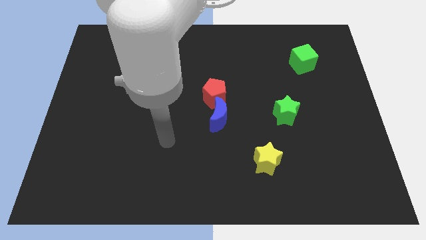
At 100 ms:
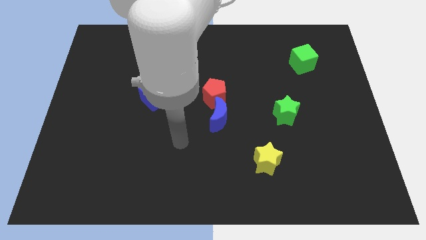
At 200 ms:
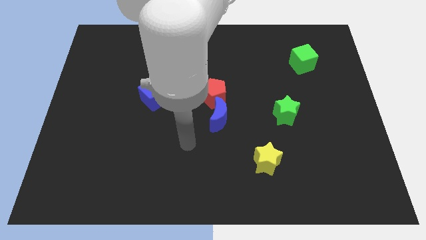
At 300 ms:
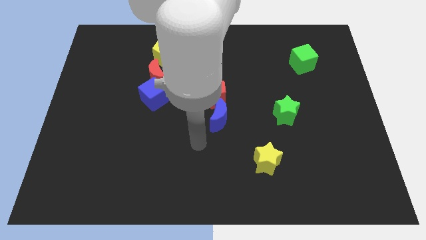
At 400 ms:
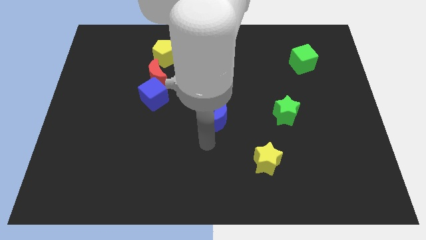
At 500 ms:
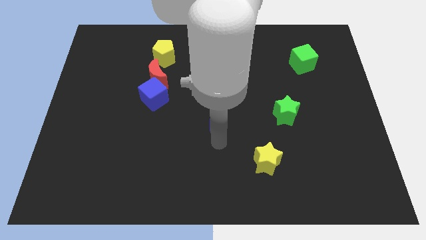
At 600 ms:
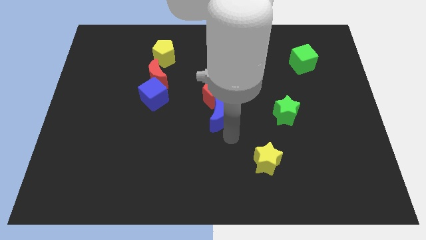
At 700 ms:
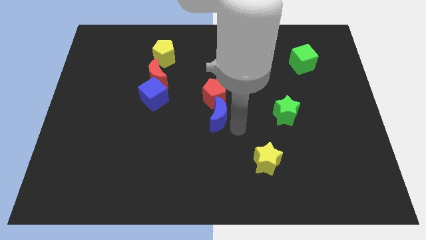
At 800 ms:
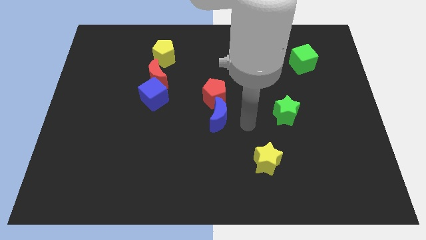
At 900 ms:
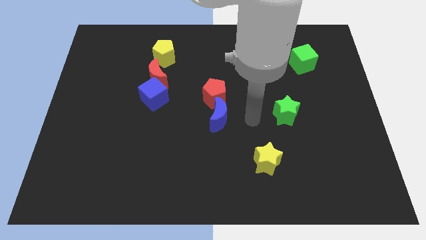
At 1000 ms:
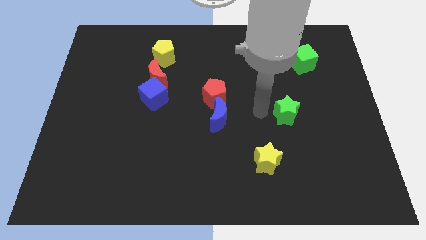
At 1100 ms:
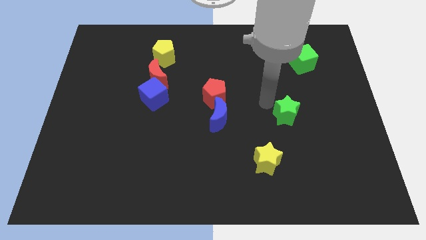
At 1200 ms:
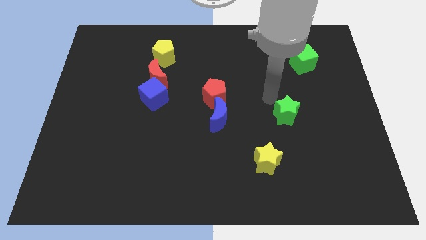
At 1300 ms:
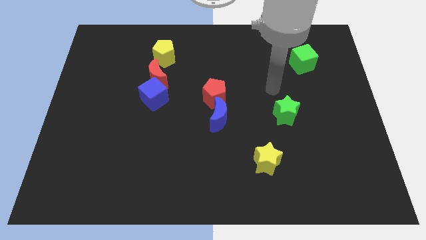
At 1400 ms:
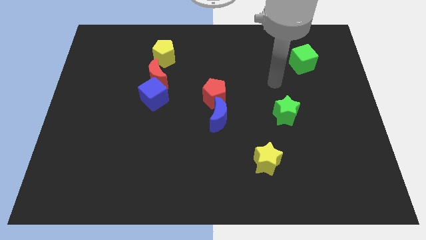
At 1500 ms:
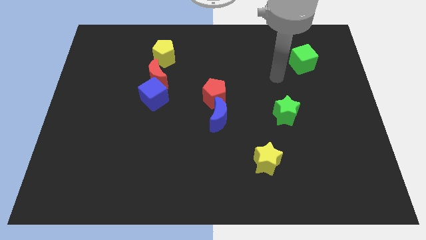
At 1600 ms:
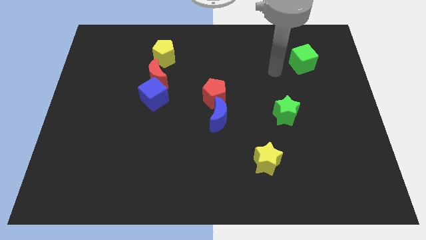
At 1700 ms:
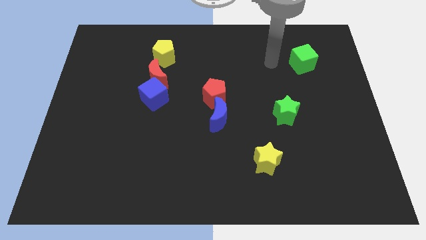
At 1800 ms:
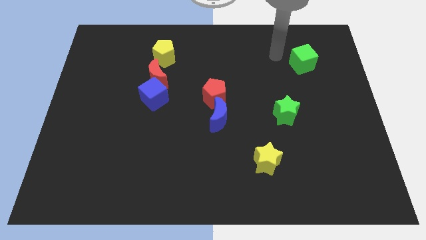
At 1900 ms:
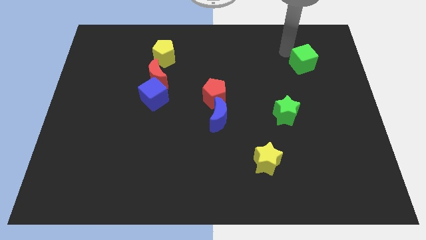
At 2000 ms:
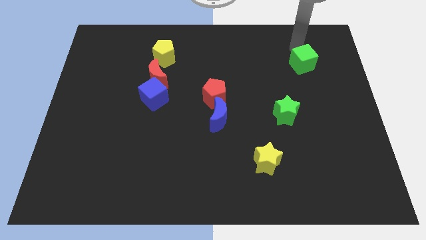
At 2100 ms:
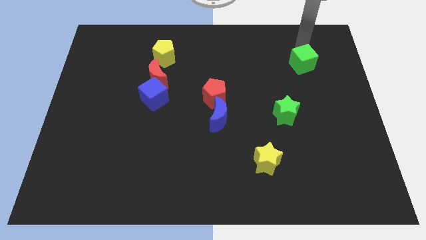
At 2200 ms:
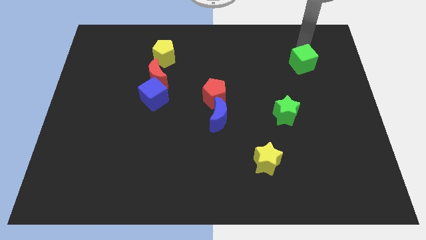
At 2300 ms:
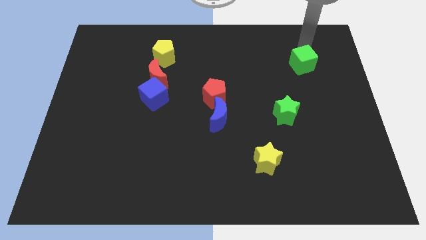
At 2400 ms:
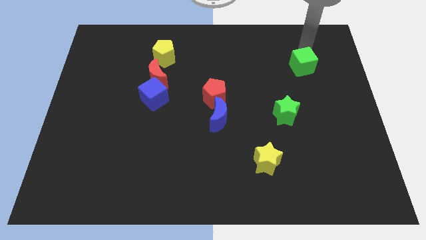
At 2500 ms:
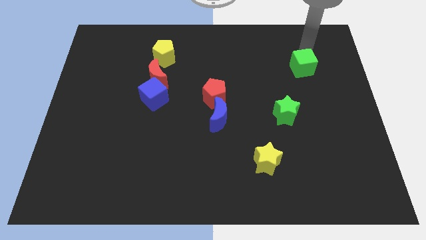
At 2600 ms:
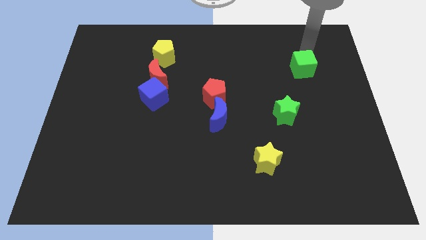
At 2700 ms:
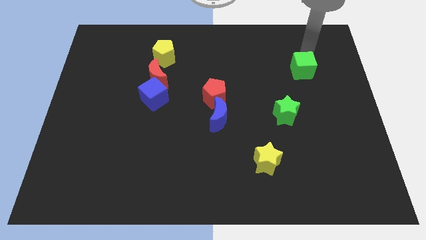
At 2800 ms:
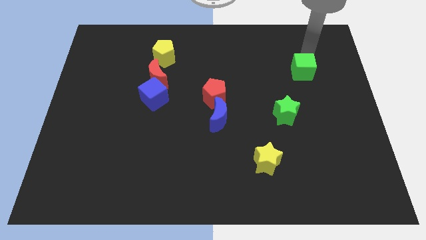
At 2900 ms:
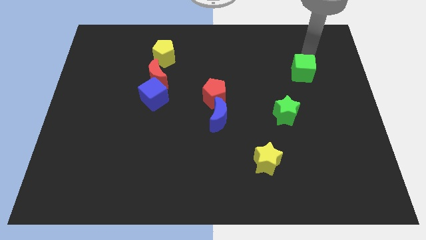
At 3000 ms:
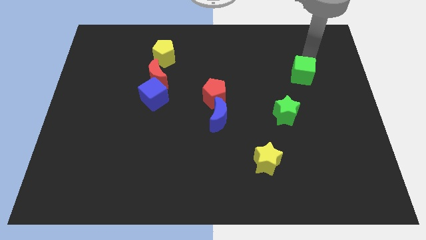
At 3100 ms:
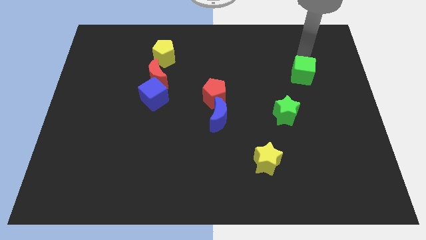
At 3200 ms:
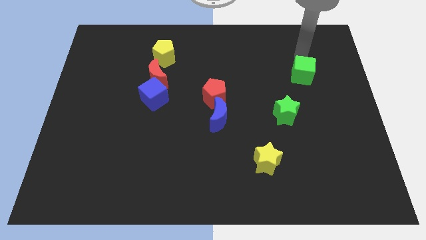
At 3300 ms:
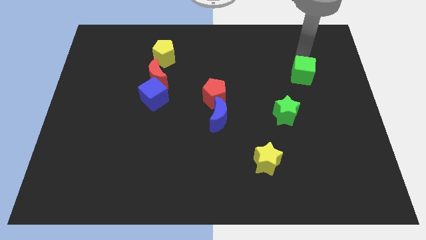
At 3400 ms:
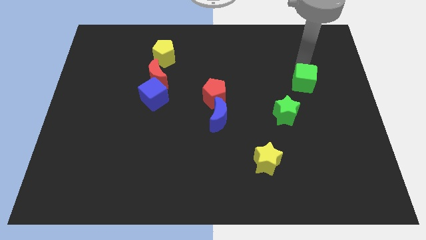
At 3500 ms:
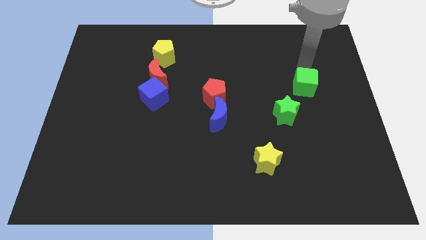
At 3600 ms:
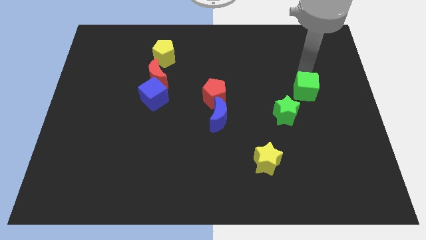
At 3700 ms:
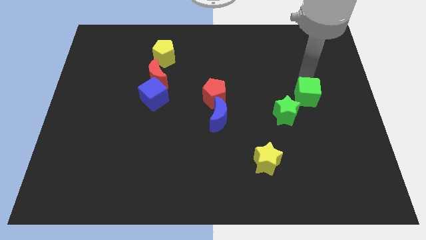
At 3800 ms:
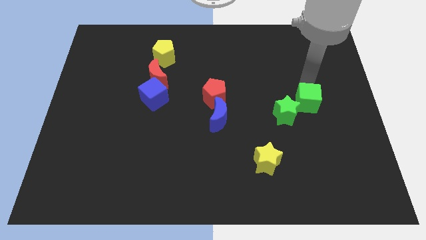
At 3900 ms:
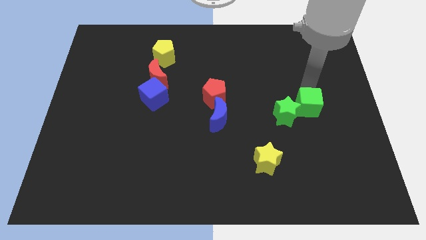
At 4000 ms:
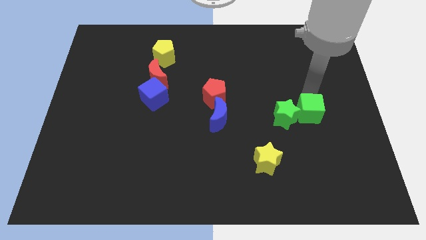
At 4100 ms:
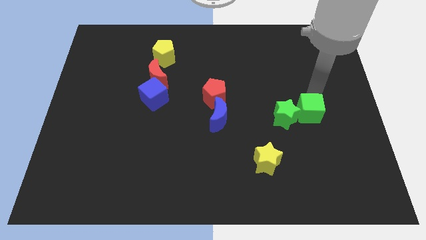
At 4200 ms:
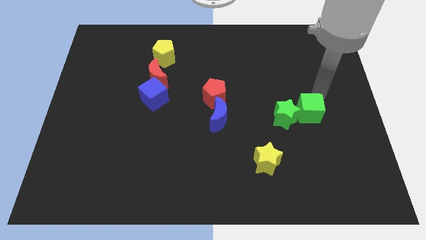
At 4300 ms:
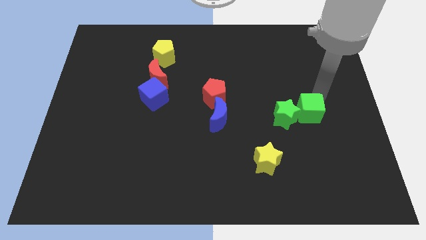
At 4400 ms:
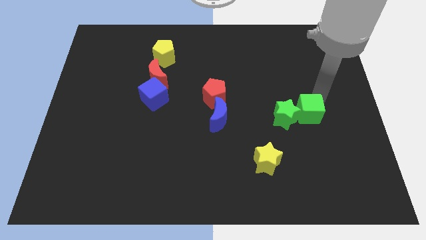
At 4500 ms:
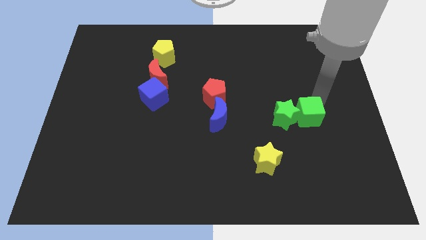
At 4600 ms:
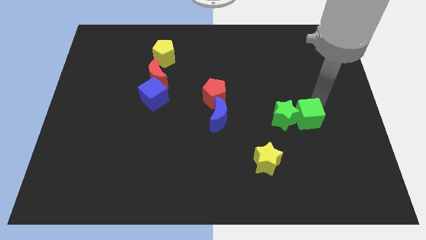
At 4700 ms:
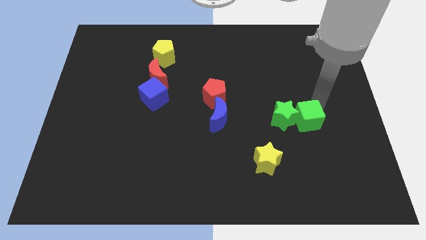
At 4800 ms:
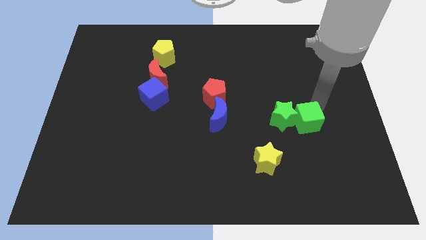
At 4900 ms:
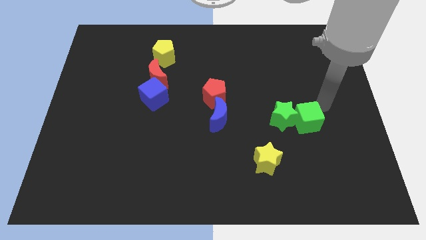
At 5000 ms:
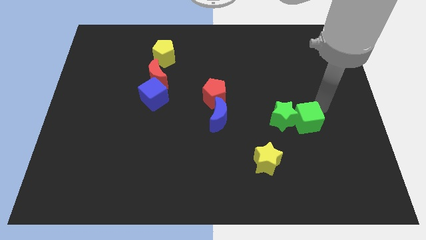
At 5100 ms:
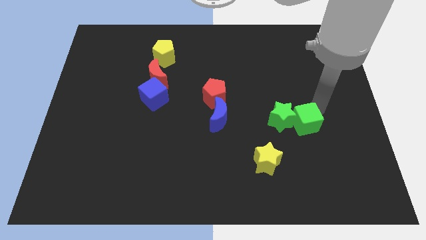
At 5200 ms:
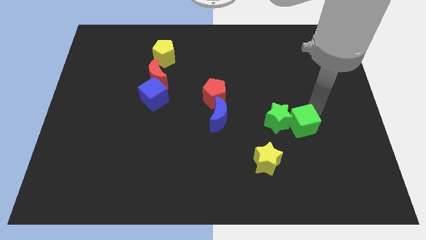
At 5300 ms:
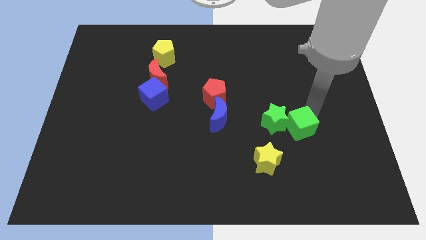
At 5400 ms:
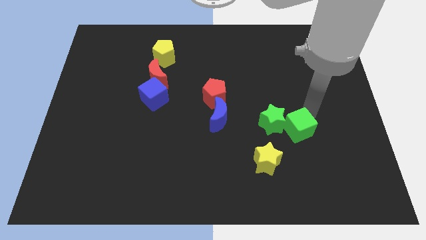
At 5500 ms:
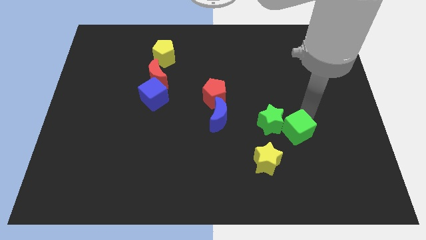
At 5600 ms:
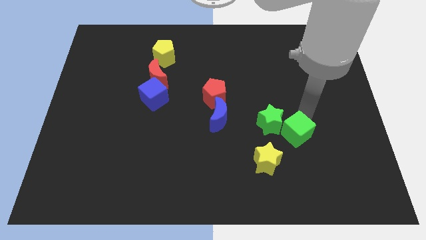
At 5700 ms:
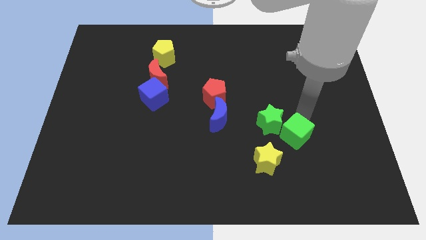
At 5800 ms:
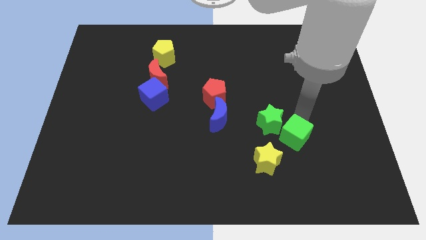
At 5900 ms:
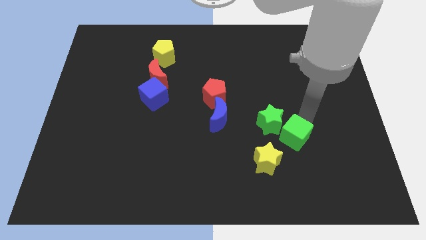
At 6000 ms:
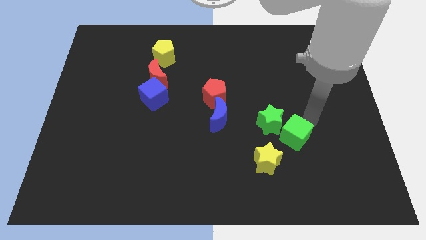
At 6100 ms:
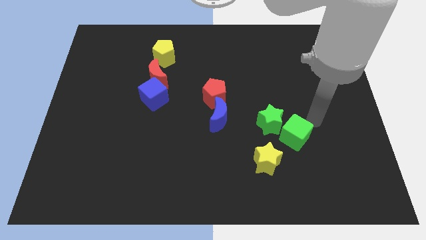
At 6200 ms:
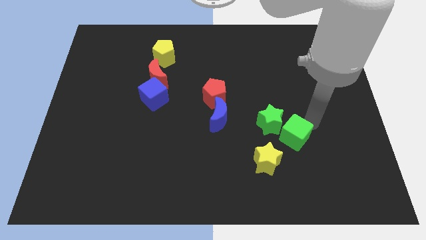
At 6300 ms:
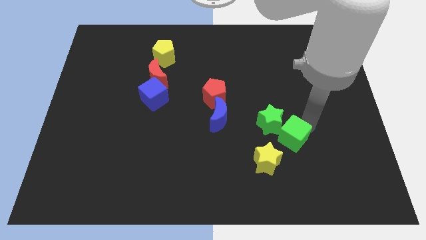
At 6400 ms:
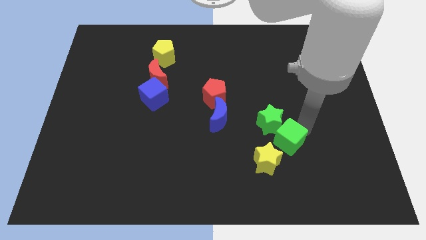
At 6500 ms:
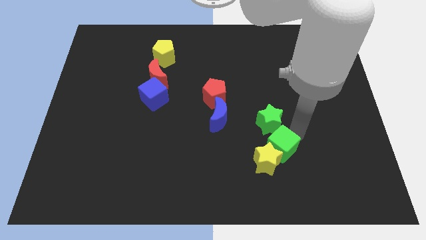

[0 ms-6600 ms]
slide the green cube to the yellow star

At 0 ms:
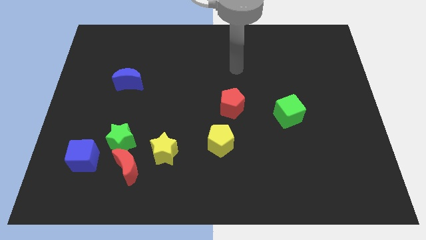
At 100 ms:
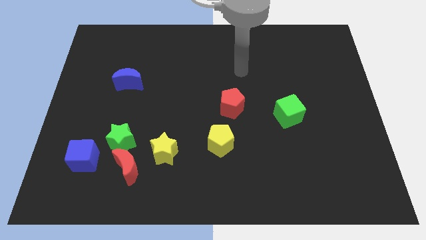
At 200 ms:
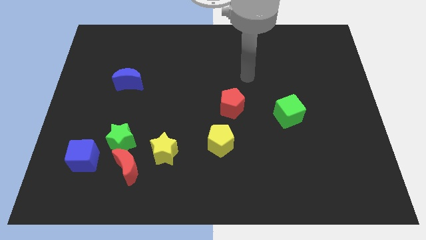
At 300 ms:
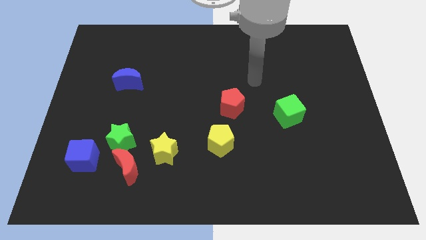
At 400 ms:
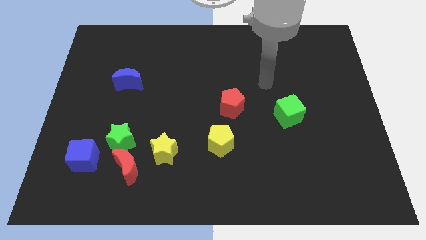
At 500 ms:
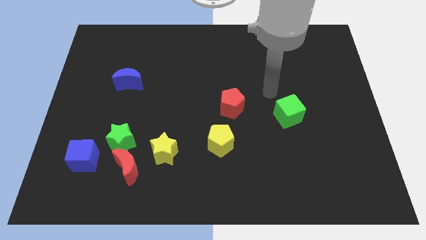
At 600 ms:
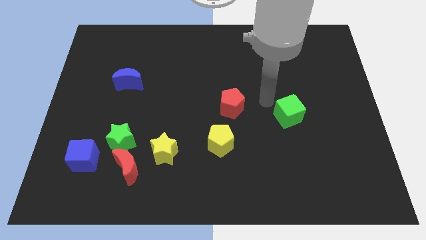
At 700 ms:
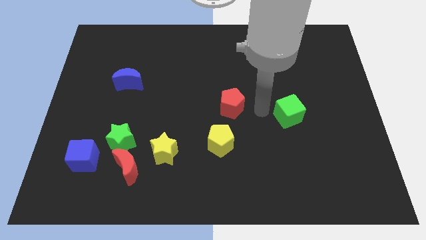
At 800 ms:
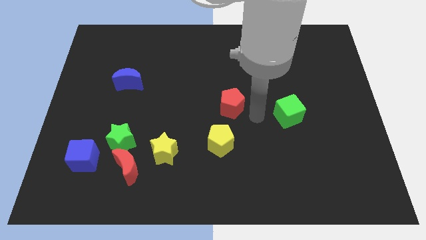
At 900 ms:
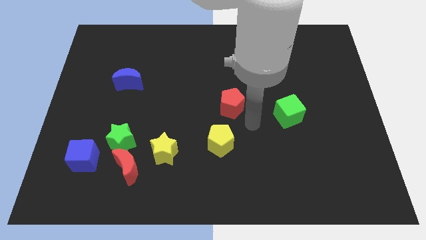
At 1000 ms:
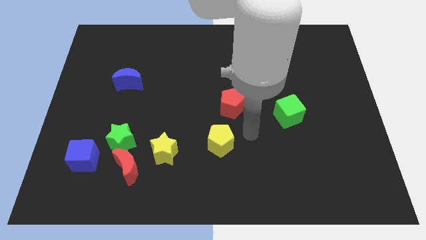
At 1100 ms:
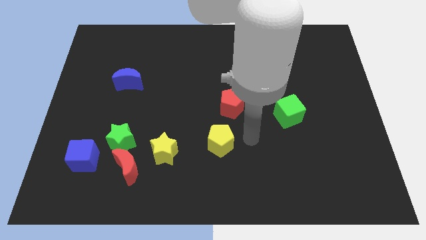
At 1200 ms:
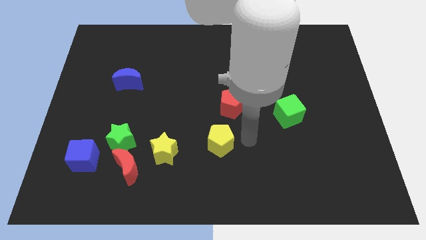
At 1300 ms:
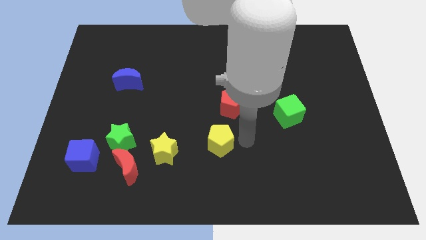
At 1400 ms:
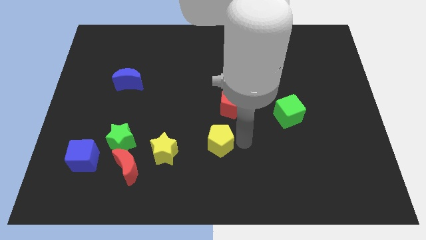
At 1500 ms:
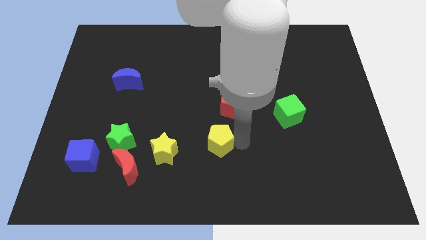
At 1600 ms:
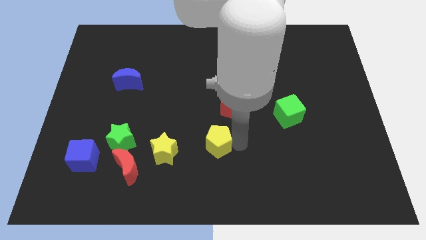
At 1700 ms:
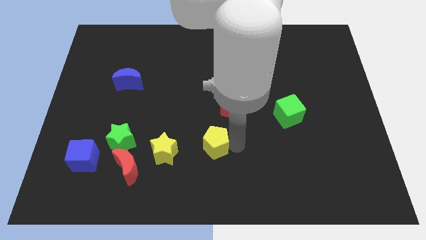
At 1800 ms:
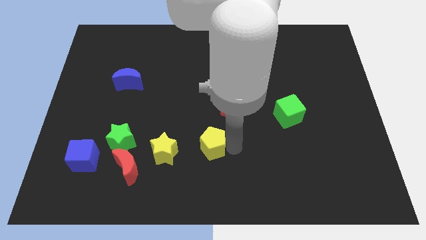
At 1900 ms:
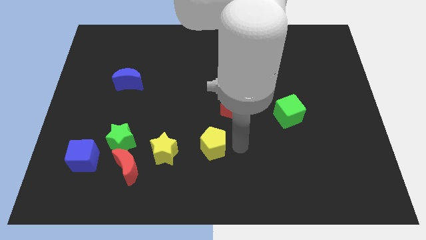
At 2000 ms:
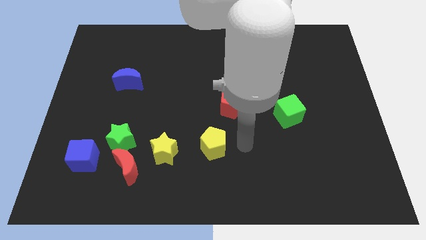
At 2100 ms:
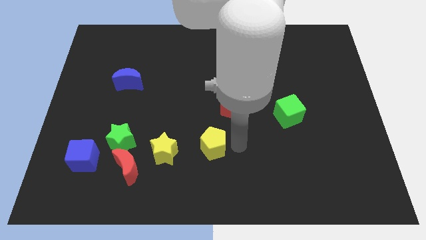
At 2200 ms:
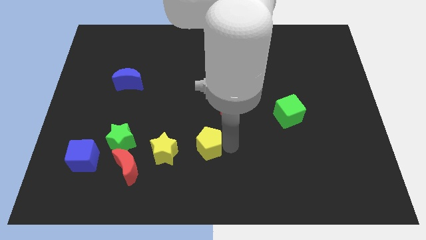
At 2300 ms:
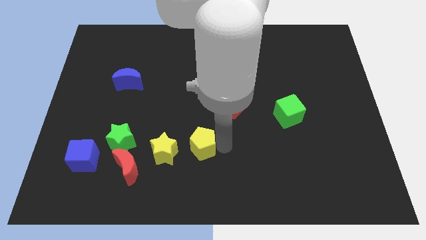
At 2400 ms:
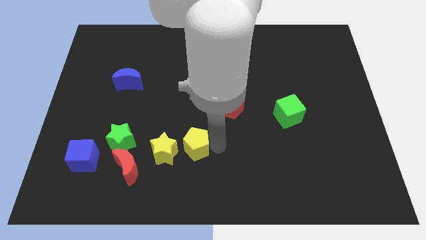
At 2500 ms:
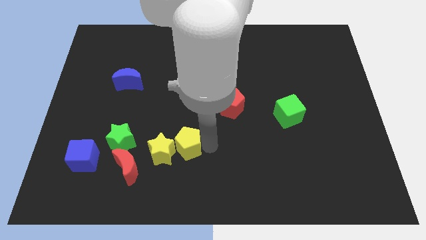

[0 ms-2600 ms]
slide the yellow pentagon next to the yellow star
